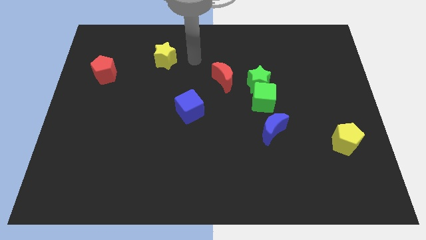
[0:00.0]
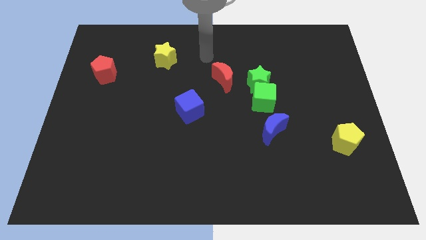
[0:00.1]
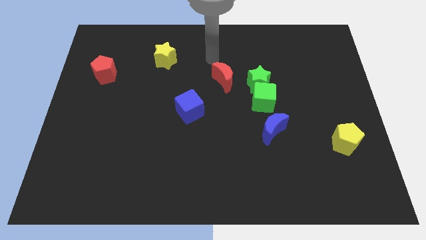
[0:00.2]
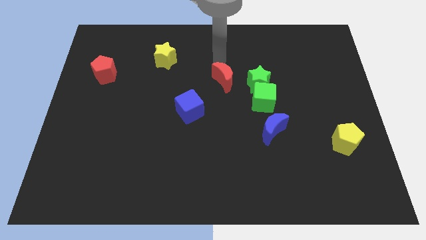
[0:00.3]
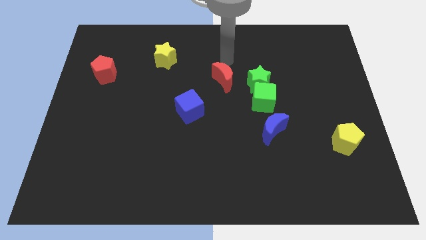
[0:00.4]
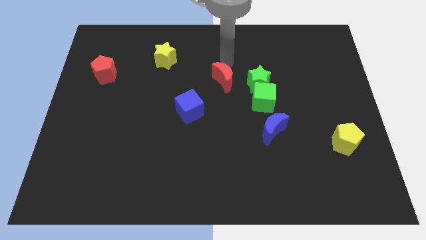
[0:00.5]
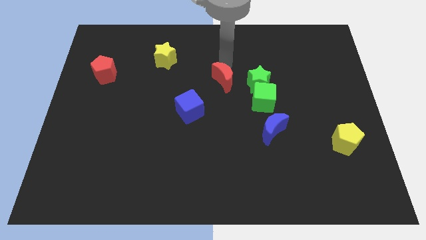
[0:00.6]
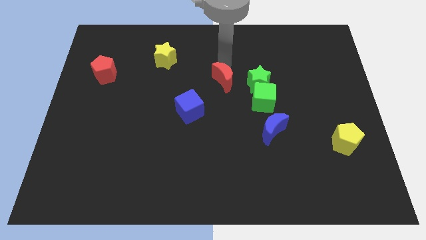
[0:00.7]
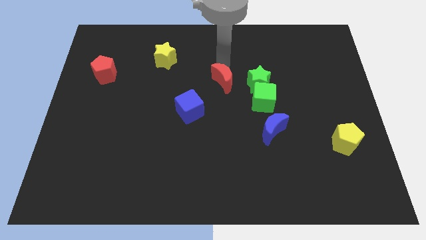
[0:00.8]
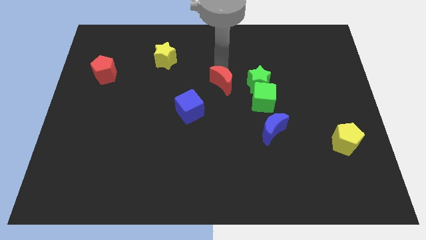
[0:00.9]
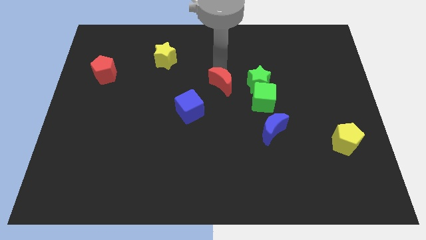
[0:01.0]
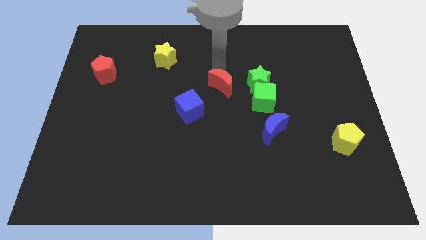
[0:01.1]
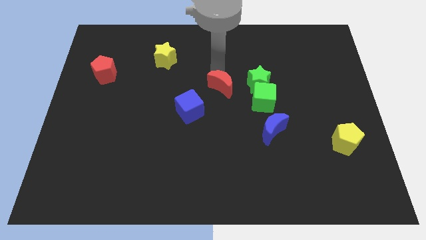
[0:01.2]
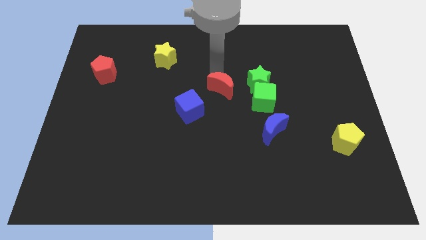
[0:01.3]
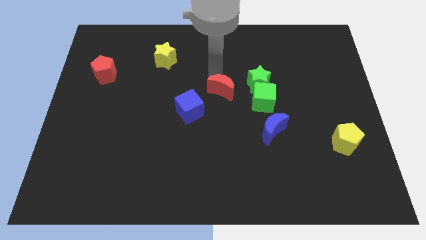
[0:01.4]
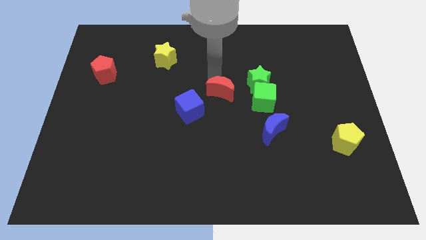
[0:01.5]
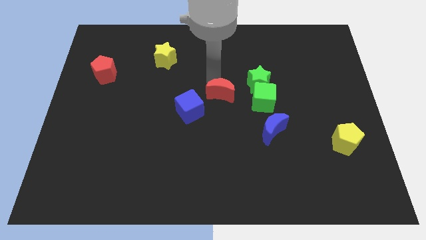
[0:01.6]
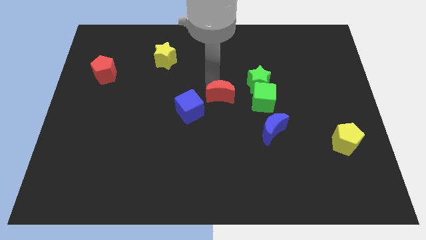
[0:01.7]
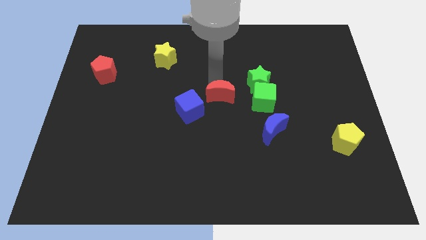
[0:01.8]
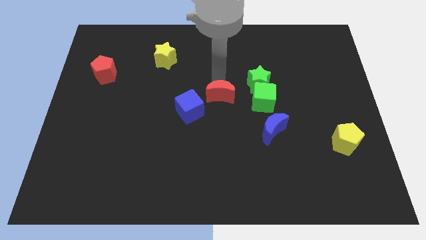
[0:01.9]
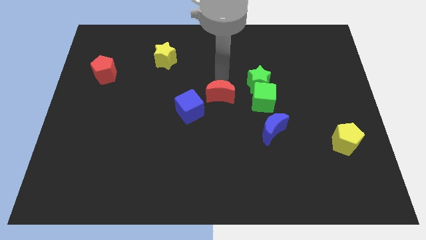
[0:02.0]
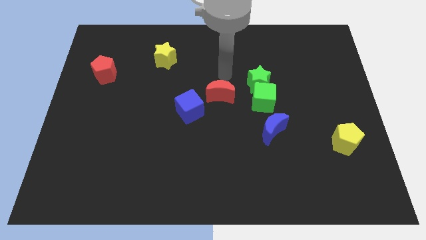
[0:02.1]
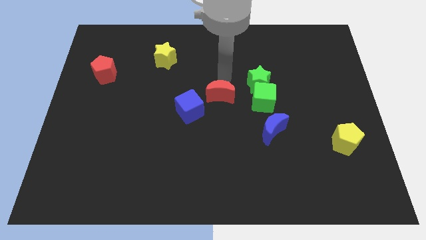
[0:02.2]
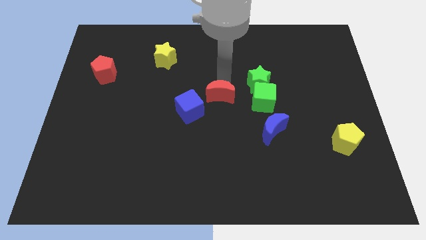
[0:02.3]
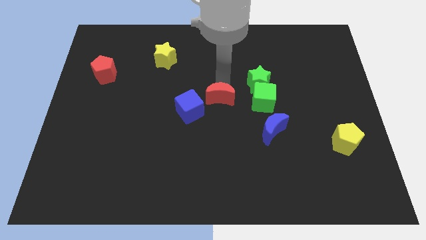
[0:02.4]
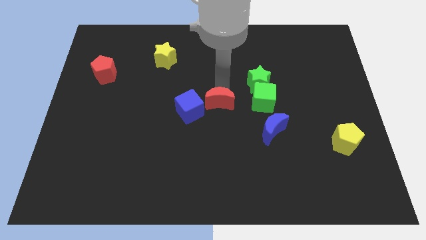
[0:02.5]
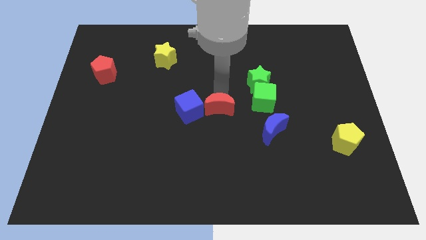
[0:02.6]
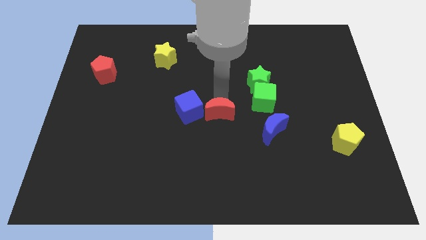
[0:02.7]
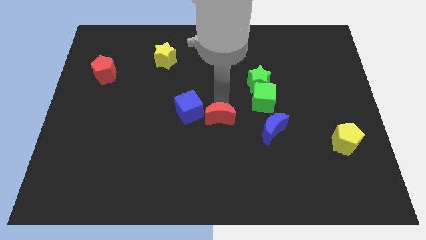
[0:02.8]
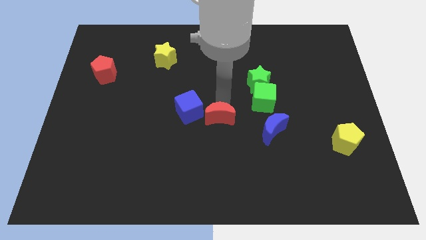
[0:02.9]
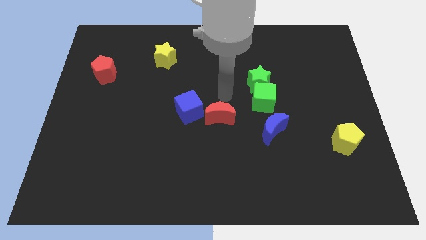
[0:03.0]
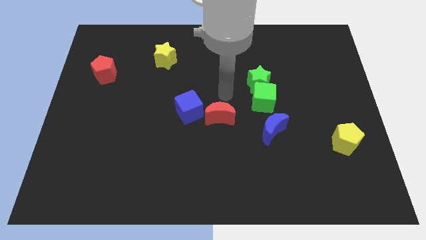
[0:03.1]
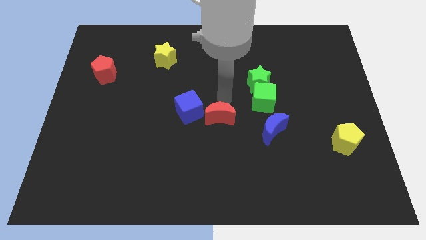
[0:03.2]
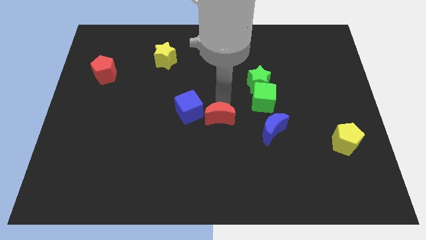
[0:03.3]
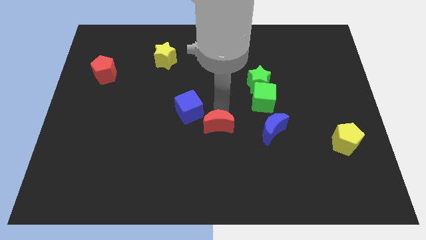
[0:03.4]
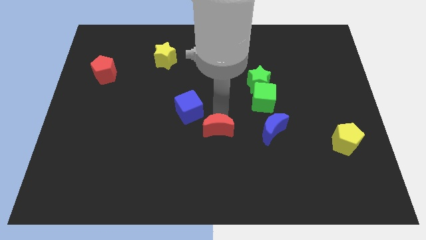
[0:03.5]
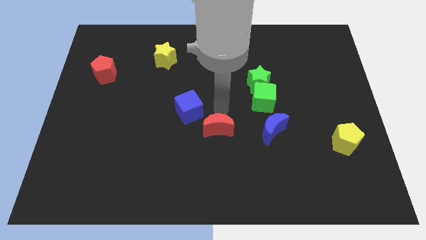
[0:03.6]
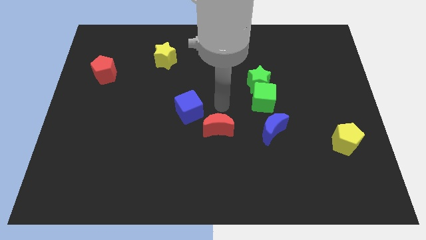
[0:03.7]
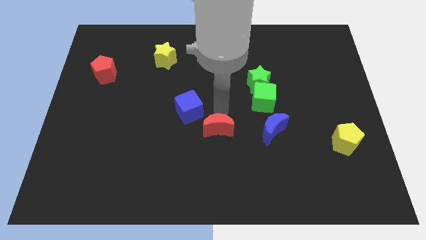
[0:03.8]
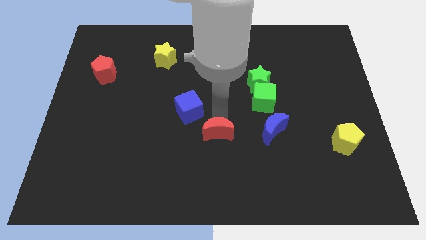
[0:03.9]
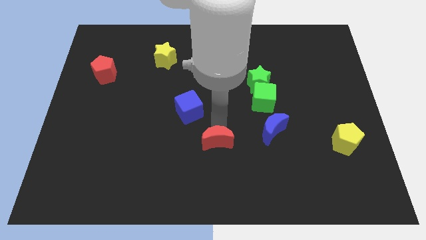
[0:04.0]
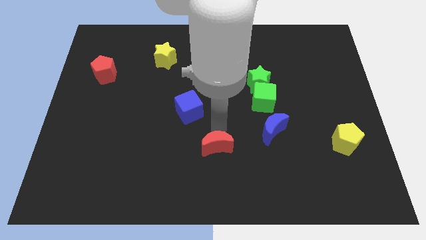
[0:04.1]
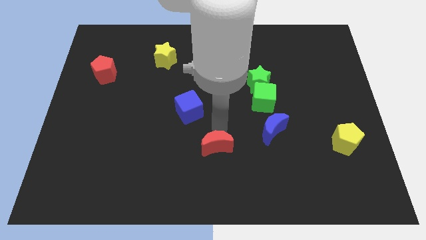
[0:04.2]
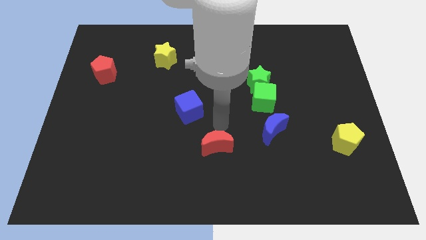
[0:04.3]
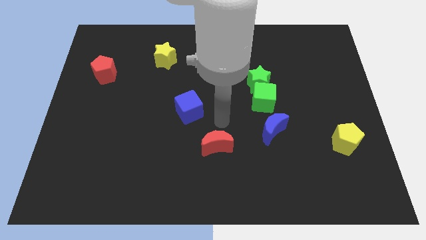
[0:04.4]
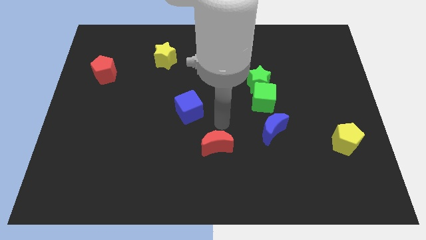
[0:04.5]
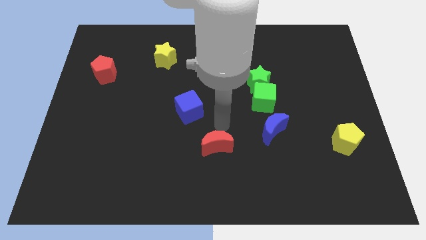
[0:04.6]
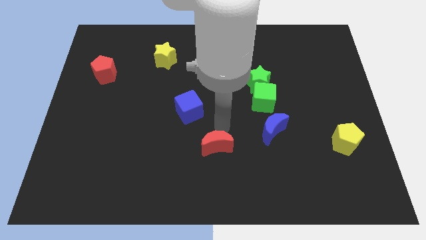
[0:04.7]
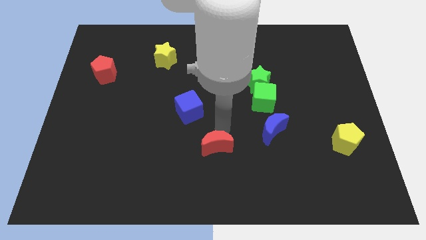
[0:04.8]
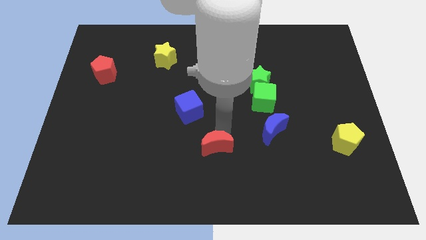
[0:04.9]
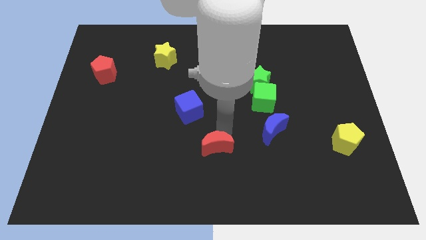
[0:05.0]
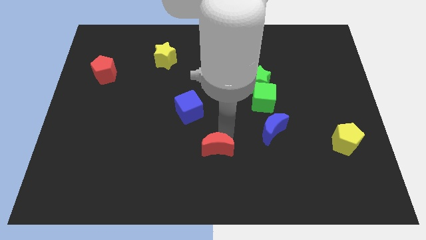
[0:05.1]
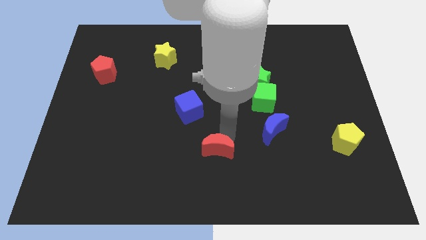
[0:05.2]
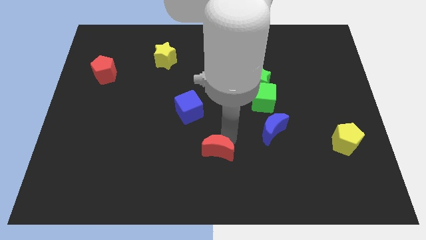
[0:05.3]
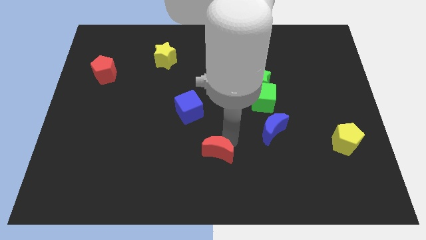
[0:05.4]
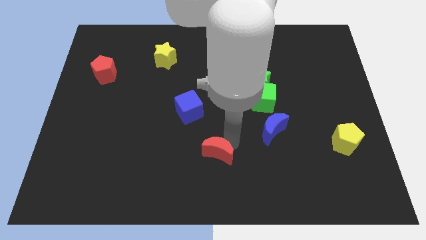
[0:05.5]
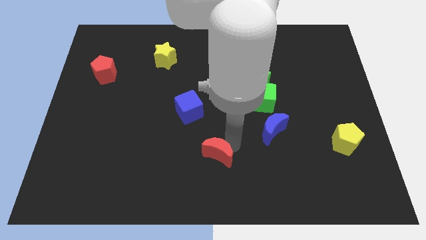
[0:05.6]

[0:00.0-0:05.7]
slide the red moon to the bottom side
